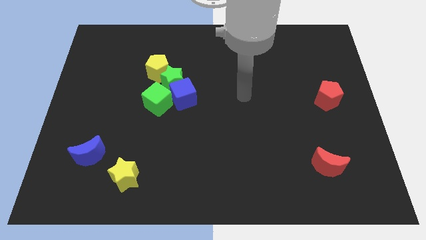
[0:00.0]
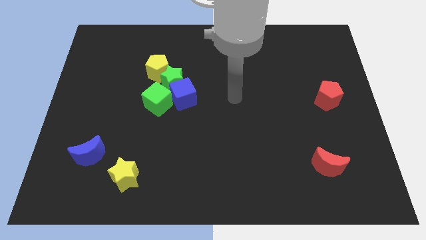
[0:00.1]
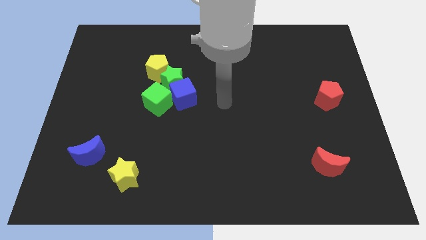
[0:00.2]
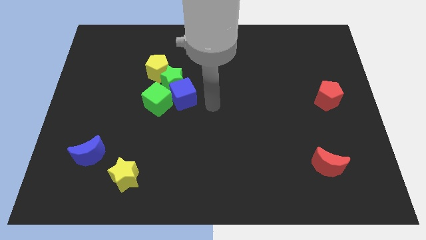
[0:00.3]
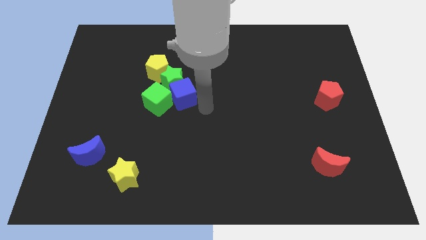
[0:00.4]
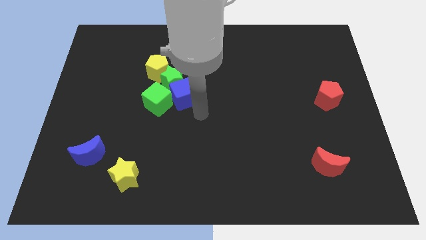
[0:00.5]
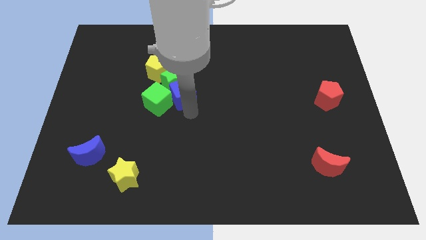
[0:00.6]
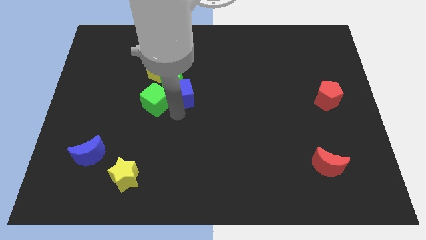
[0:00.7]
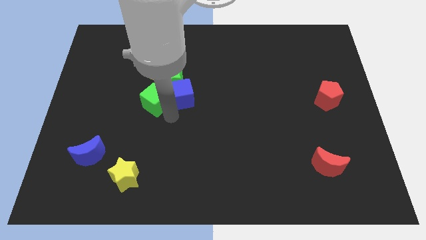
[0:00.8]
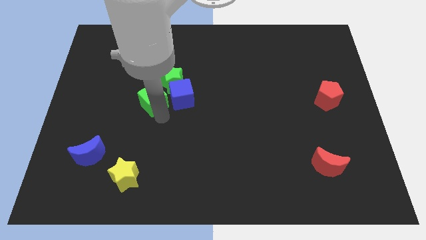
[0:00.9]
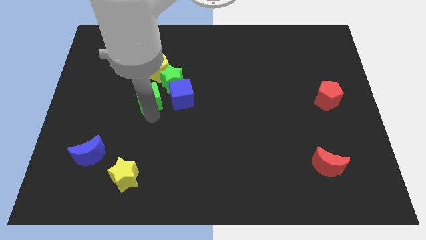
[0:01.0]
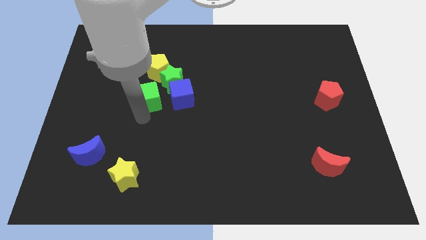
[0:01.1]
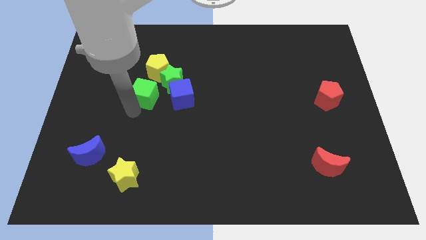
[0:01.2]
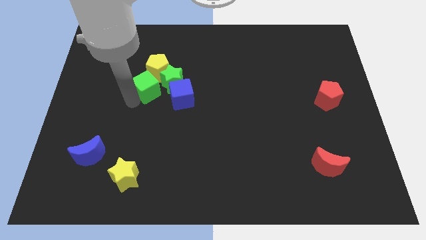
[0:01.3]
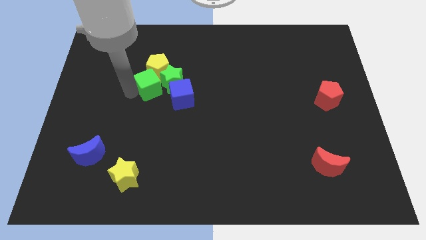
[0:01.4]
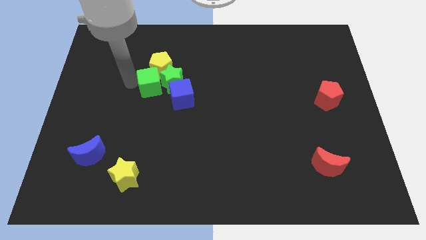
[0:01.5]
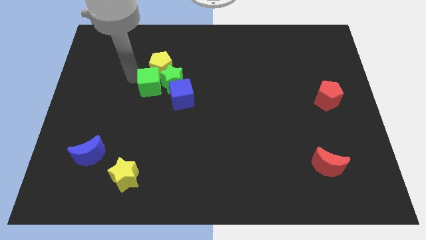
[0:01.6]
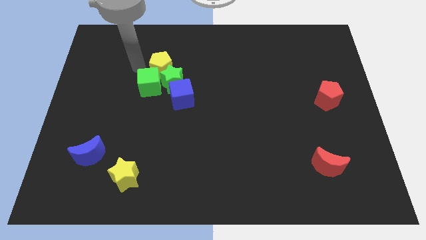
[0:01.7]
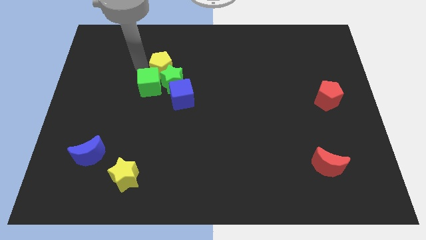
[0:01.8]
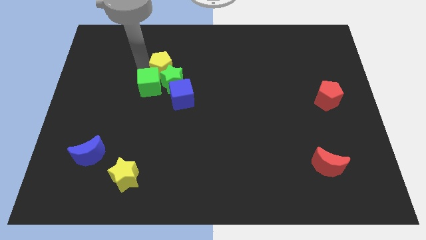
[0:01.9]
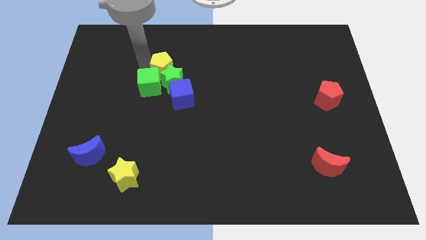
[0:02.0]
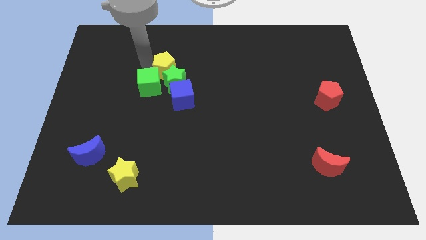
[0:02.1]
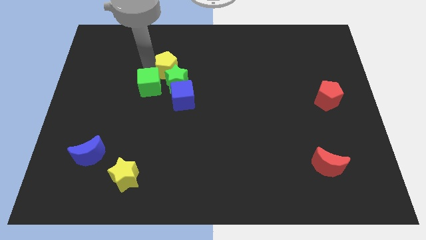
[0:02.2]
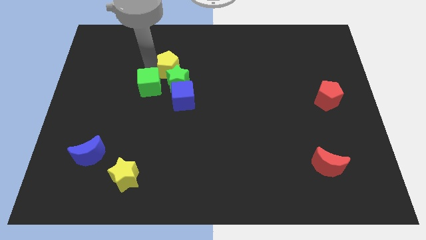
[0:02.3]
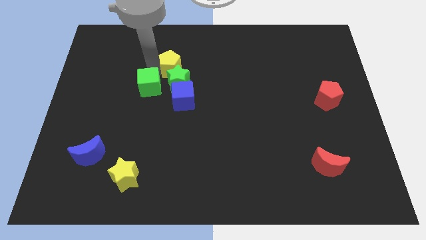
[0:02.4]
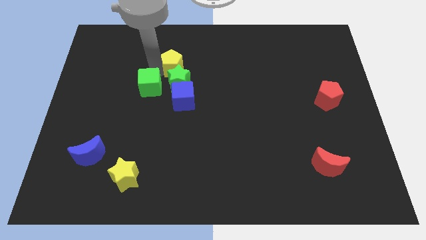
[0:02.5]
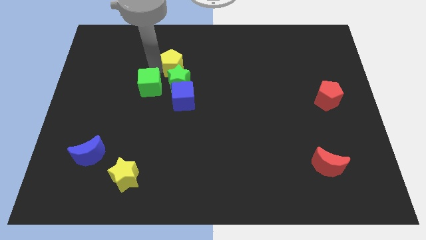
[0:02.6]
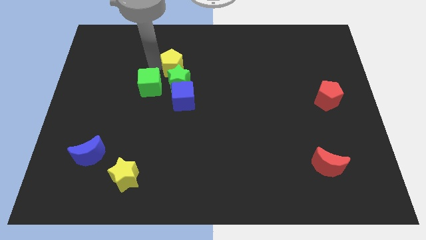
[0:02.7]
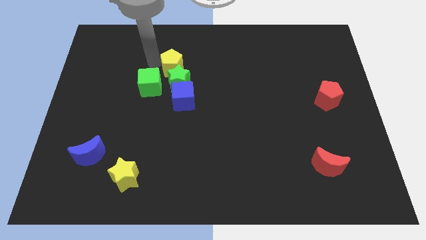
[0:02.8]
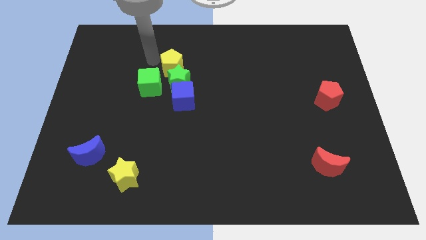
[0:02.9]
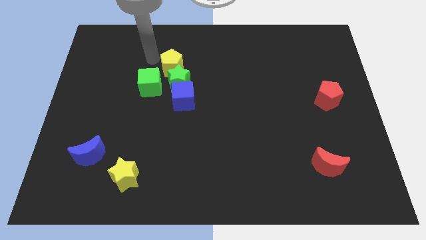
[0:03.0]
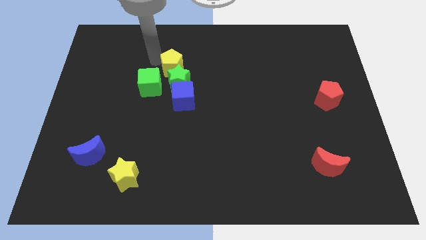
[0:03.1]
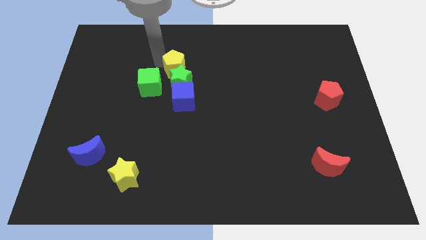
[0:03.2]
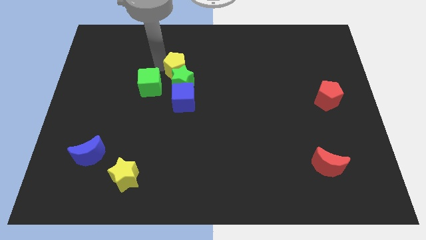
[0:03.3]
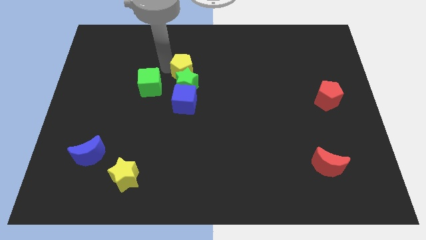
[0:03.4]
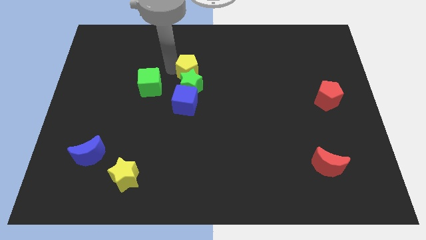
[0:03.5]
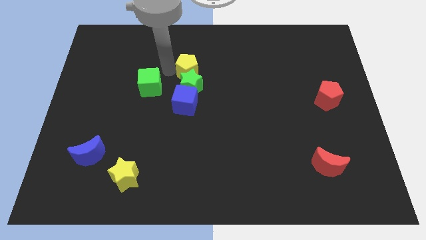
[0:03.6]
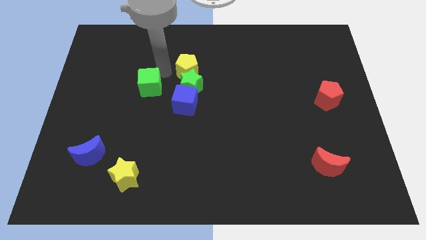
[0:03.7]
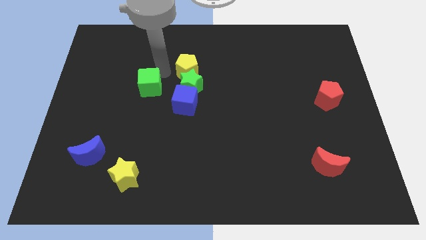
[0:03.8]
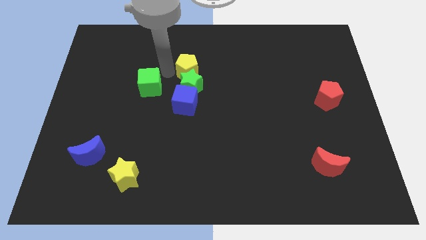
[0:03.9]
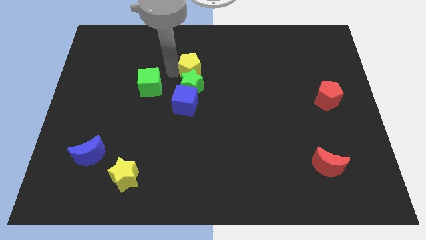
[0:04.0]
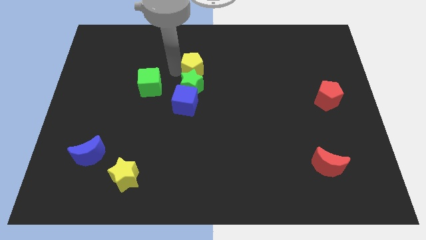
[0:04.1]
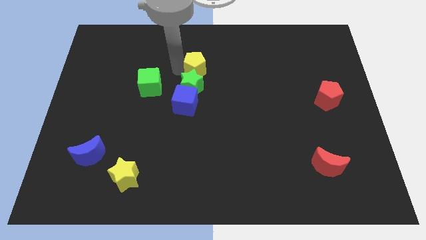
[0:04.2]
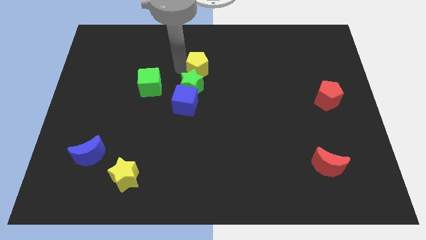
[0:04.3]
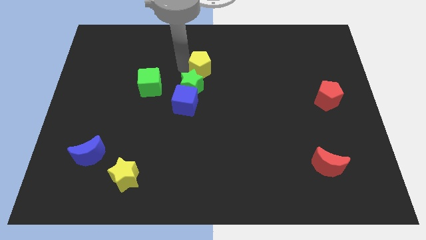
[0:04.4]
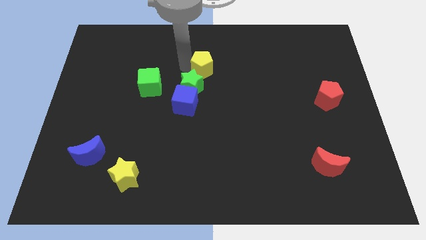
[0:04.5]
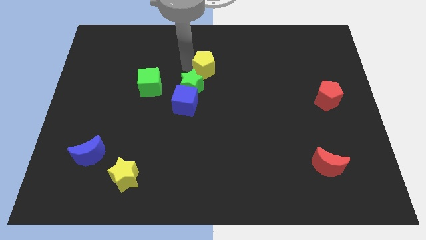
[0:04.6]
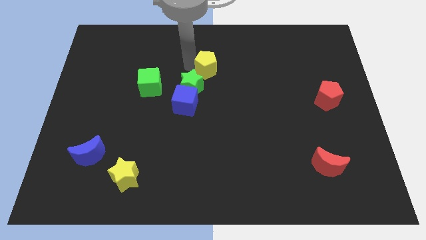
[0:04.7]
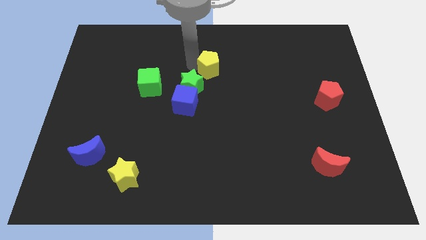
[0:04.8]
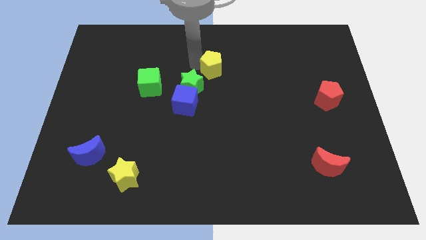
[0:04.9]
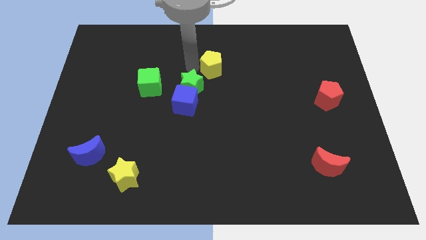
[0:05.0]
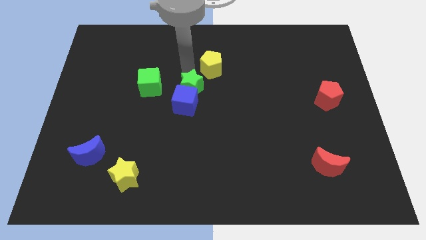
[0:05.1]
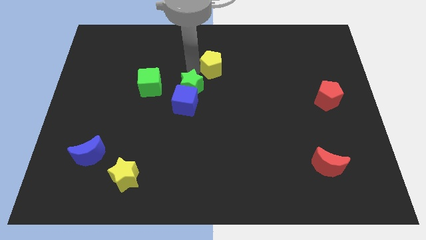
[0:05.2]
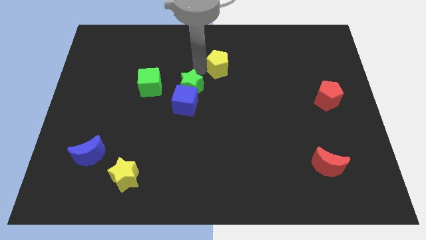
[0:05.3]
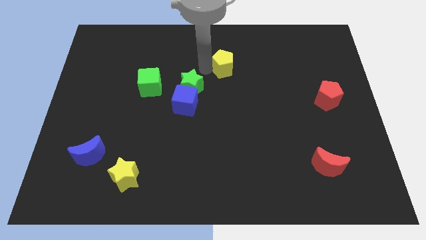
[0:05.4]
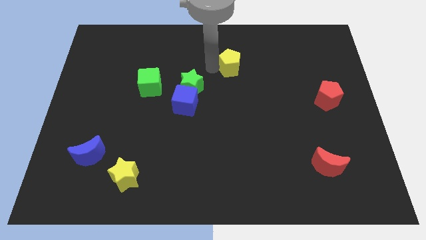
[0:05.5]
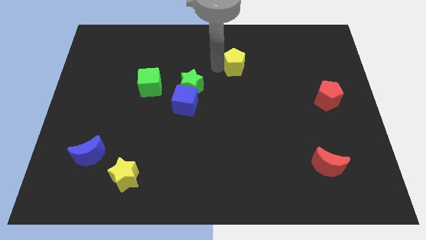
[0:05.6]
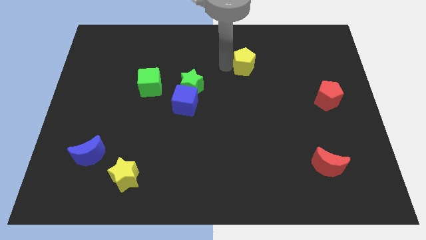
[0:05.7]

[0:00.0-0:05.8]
slide the yellow pentagon to the right

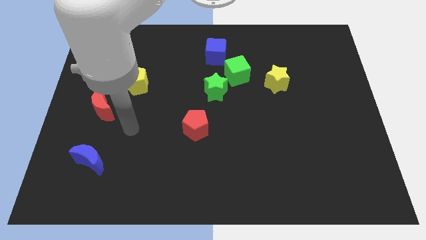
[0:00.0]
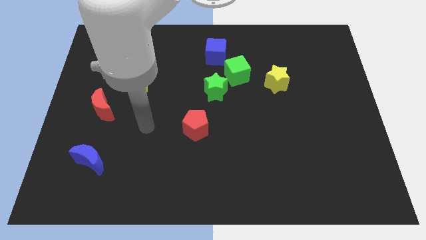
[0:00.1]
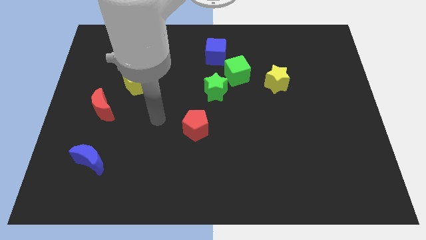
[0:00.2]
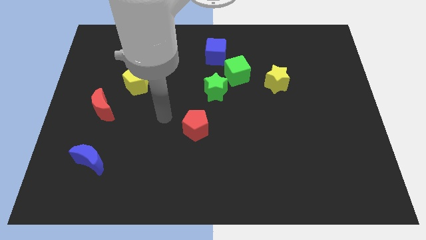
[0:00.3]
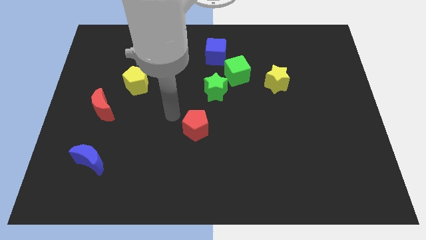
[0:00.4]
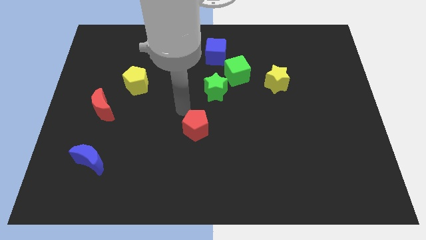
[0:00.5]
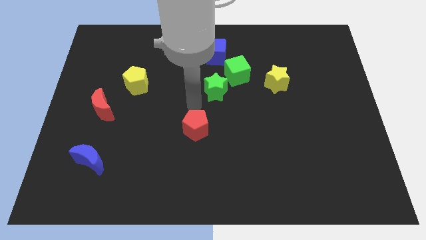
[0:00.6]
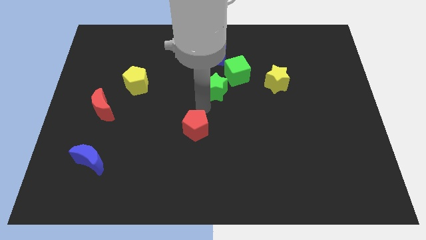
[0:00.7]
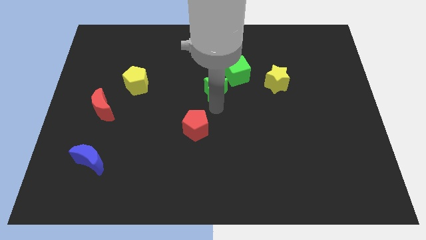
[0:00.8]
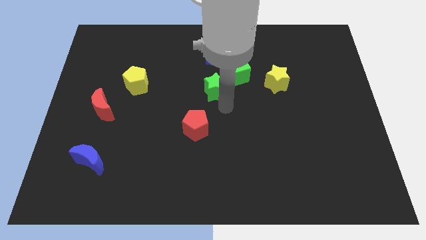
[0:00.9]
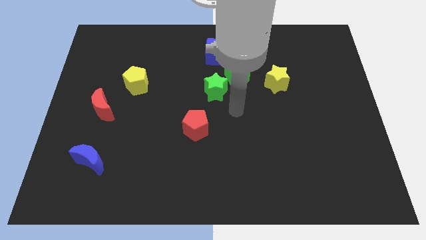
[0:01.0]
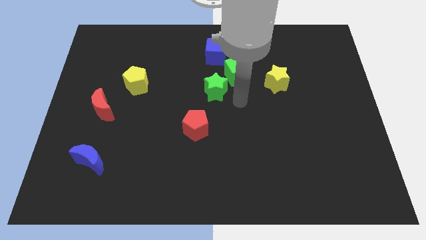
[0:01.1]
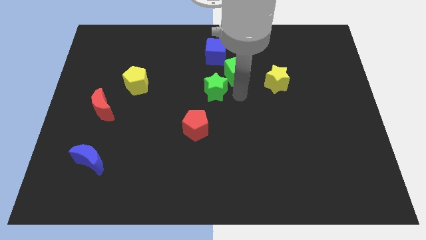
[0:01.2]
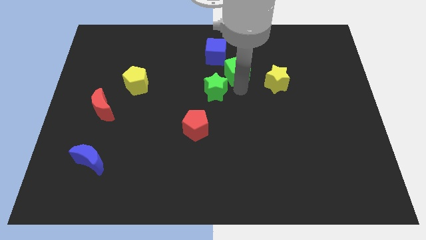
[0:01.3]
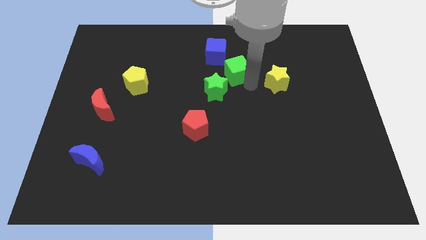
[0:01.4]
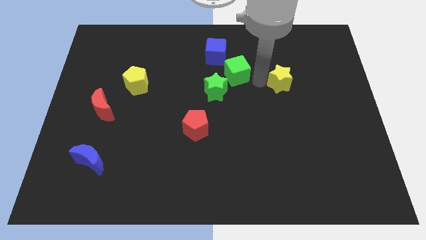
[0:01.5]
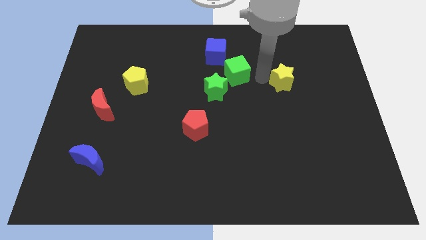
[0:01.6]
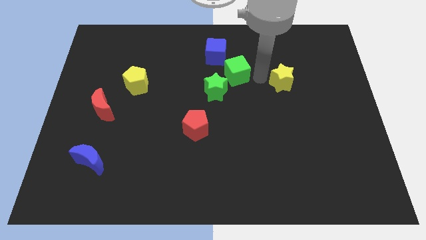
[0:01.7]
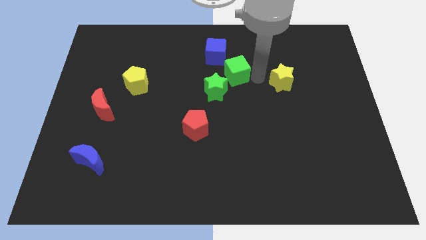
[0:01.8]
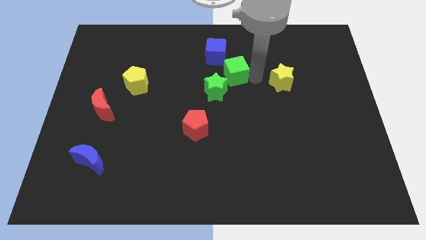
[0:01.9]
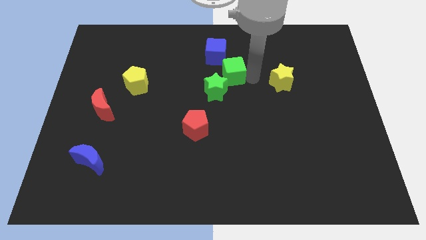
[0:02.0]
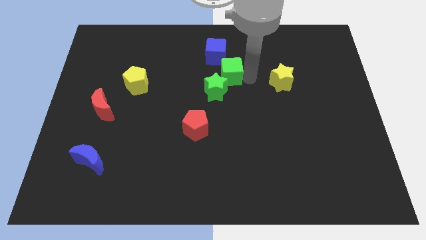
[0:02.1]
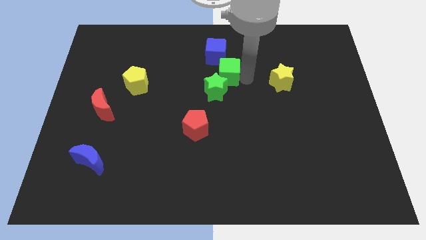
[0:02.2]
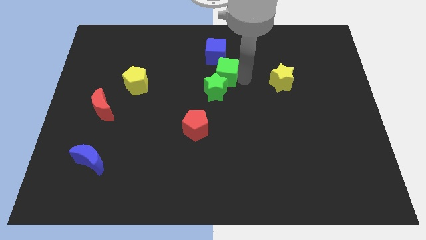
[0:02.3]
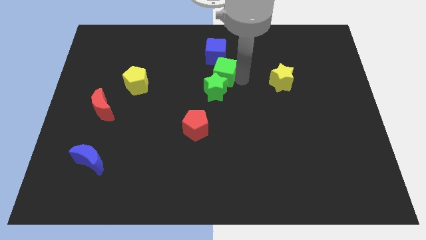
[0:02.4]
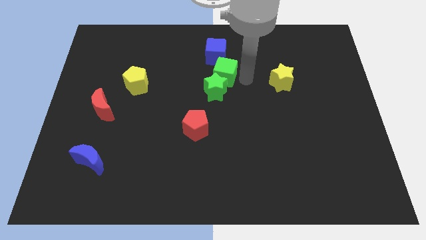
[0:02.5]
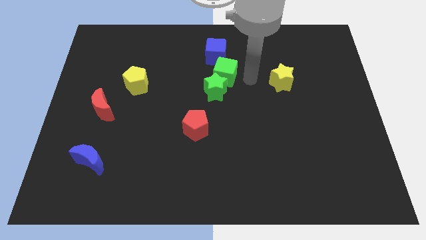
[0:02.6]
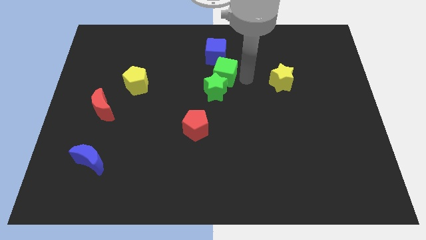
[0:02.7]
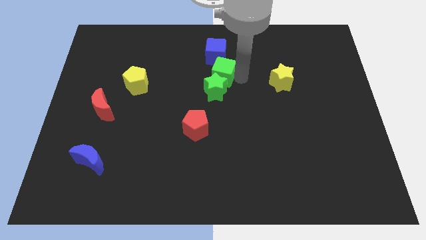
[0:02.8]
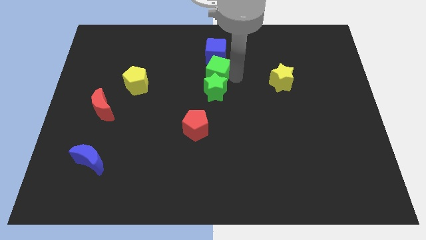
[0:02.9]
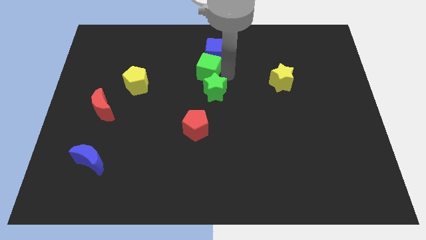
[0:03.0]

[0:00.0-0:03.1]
slightly slide the green cube left
